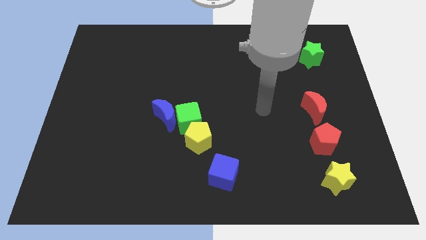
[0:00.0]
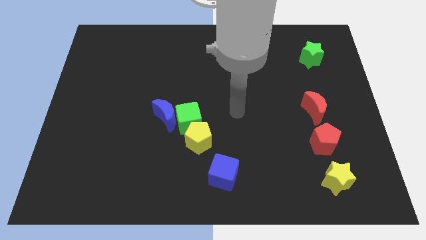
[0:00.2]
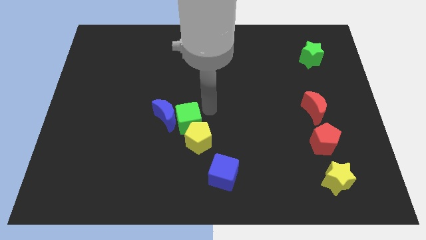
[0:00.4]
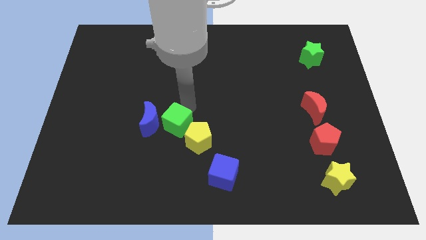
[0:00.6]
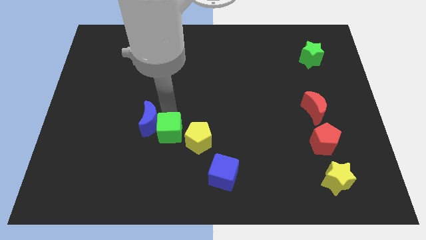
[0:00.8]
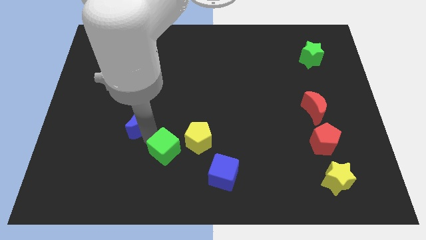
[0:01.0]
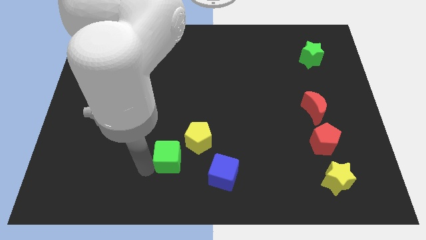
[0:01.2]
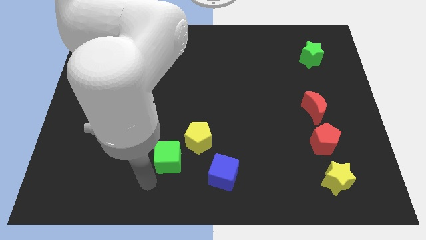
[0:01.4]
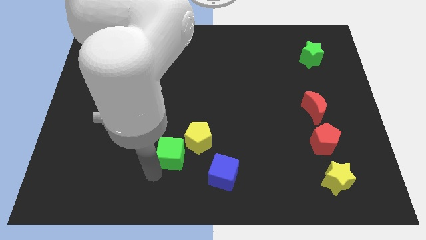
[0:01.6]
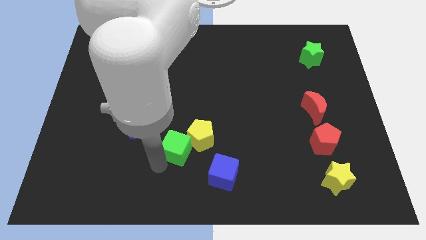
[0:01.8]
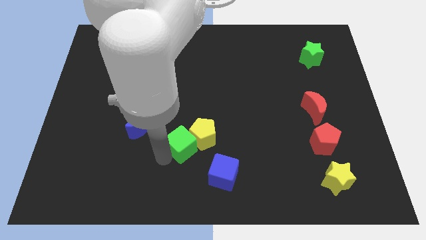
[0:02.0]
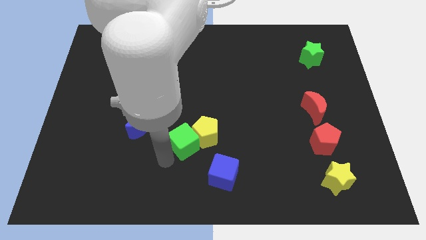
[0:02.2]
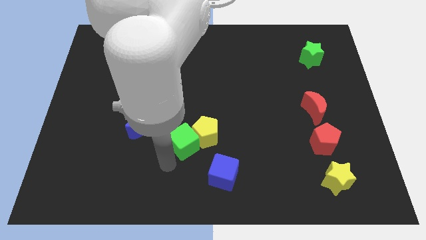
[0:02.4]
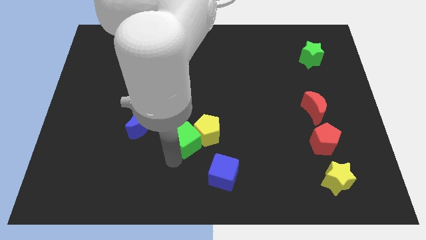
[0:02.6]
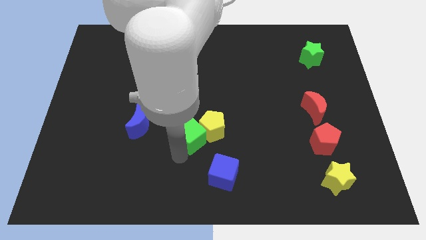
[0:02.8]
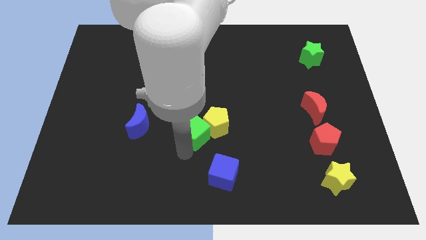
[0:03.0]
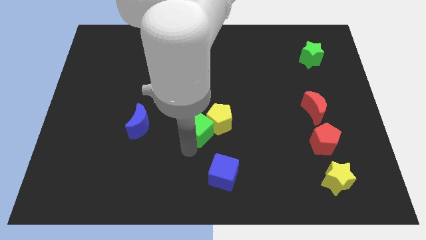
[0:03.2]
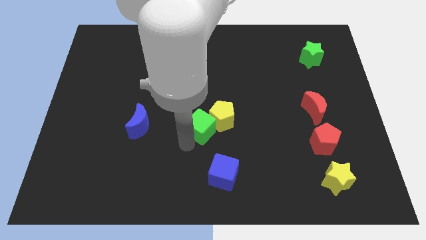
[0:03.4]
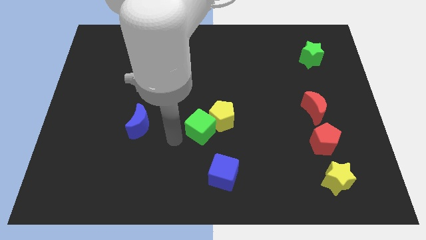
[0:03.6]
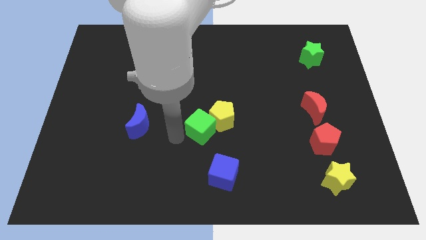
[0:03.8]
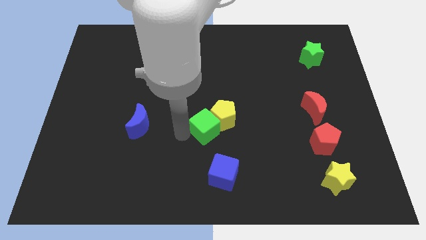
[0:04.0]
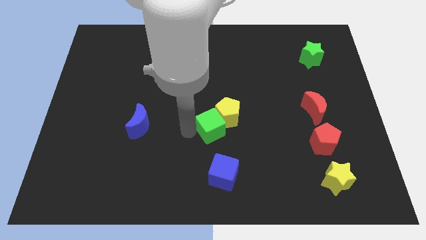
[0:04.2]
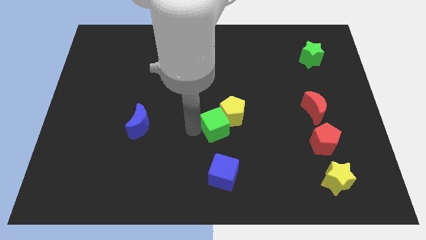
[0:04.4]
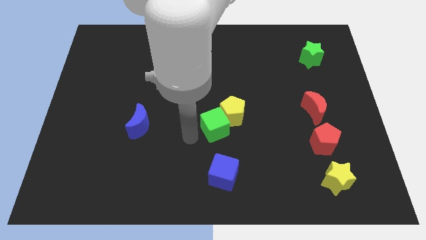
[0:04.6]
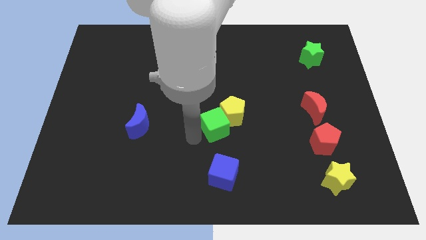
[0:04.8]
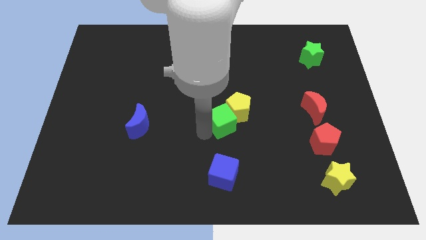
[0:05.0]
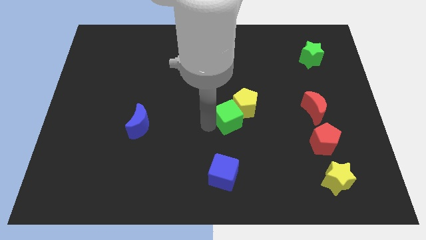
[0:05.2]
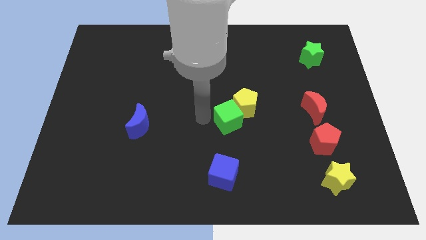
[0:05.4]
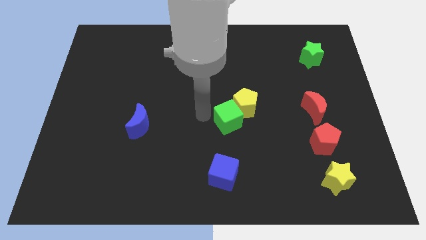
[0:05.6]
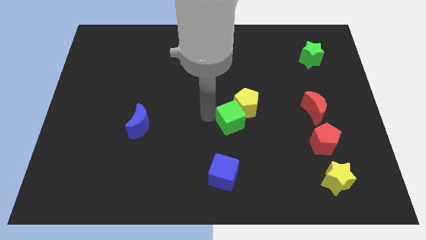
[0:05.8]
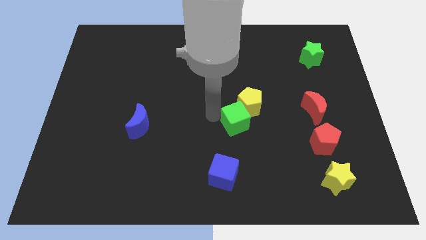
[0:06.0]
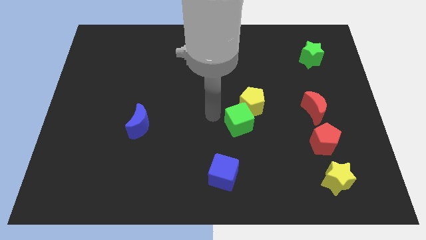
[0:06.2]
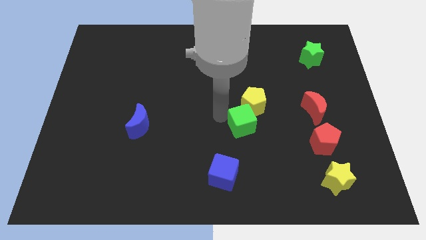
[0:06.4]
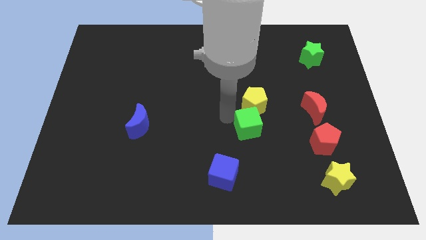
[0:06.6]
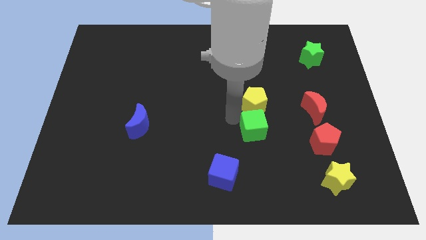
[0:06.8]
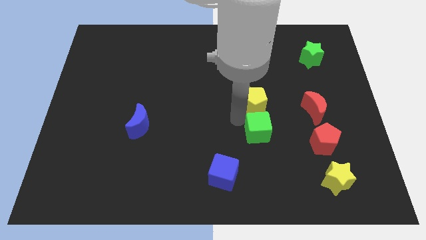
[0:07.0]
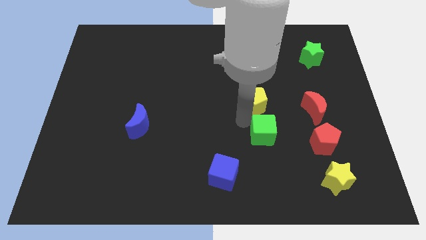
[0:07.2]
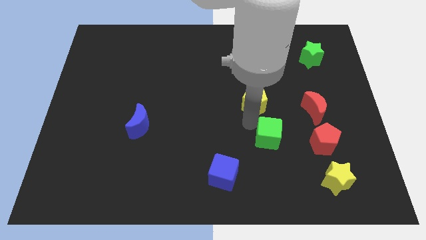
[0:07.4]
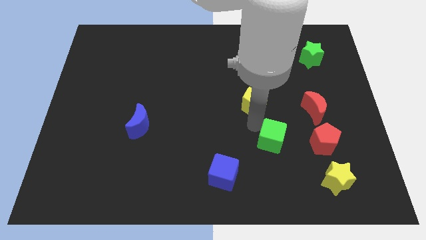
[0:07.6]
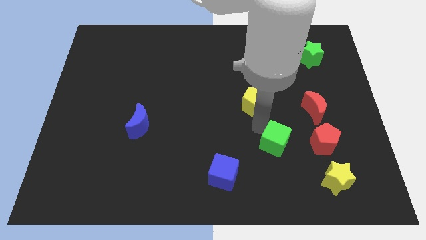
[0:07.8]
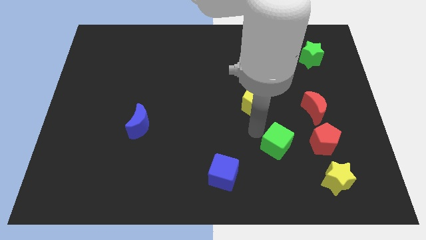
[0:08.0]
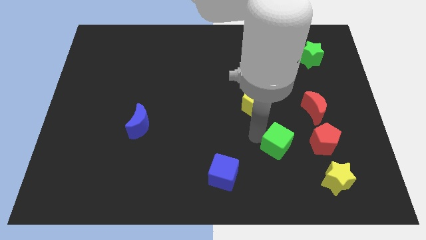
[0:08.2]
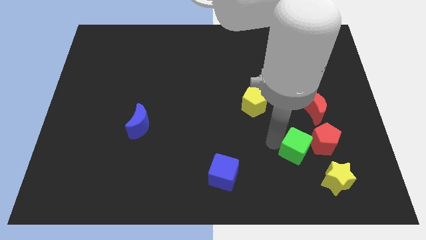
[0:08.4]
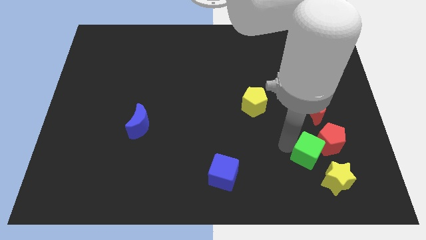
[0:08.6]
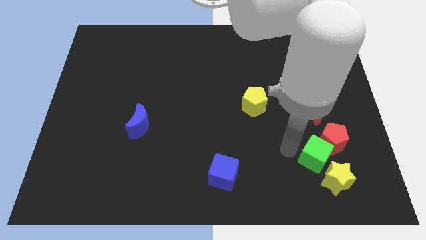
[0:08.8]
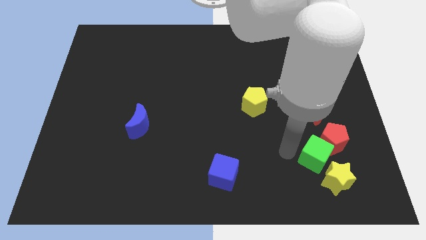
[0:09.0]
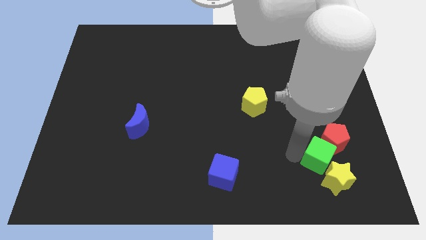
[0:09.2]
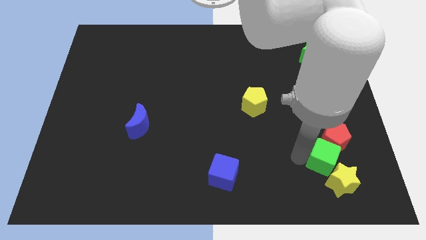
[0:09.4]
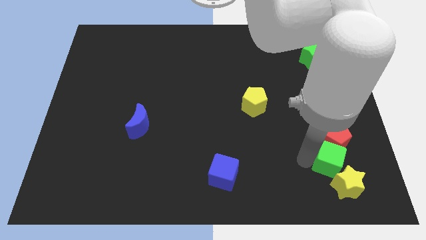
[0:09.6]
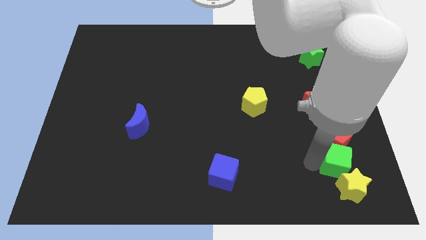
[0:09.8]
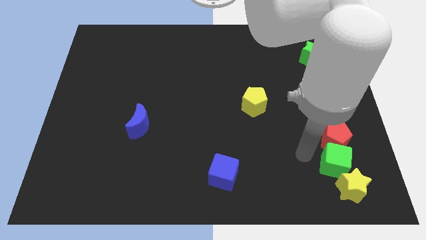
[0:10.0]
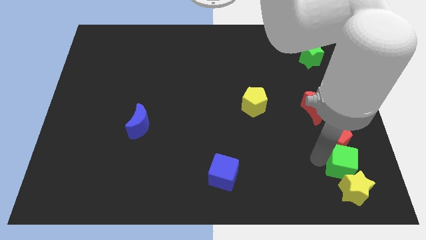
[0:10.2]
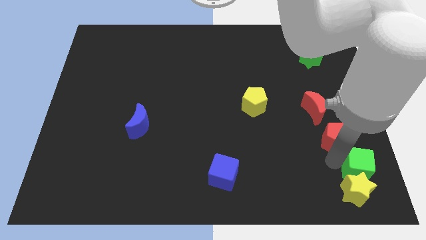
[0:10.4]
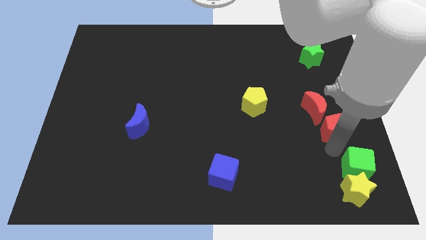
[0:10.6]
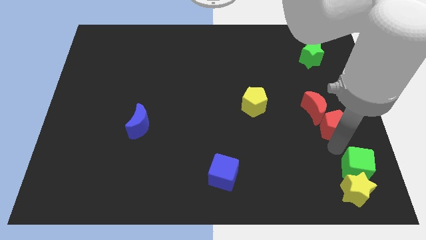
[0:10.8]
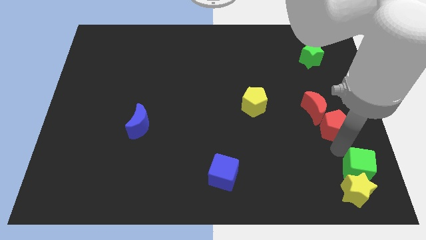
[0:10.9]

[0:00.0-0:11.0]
slide the green cube to the bottom right of the board
